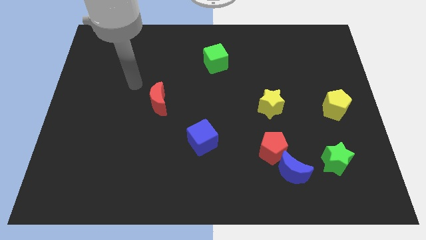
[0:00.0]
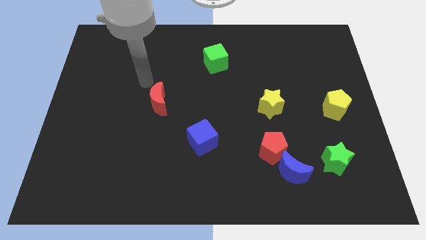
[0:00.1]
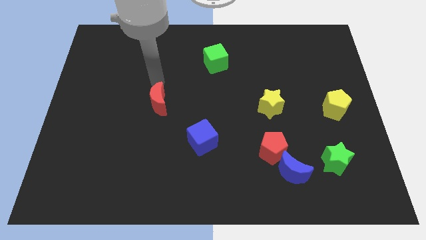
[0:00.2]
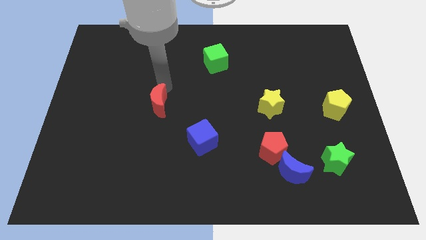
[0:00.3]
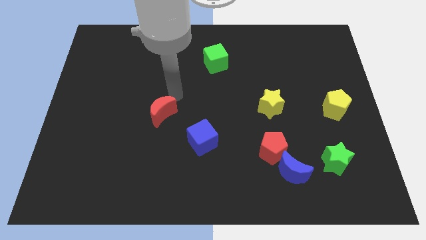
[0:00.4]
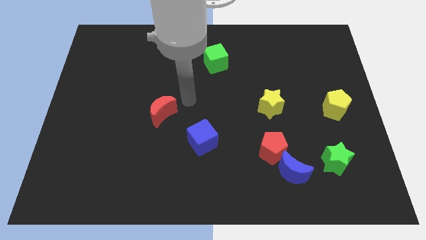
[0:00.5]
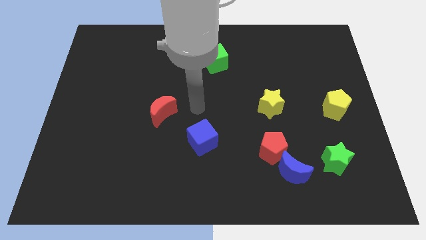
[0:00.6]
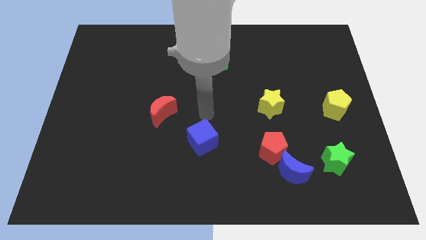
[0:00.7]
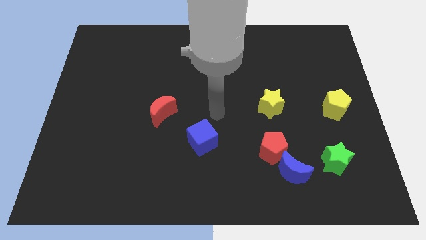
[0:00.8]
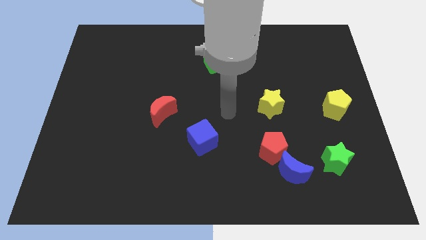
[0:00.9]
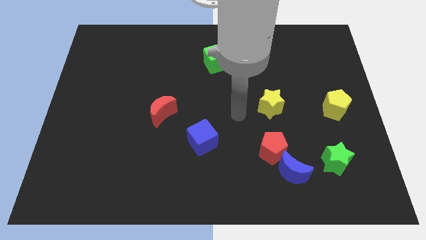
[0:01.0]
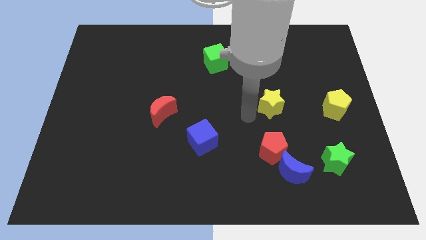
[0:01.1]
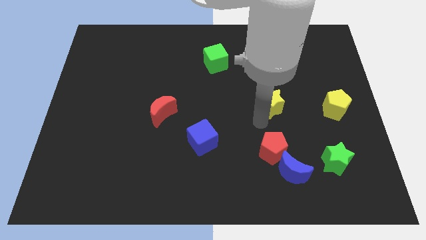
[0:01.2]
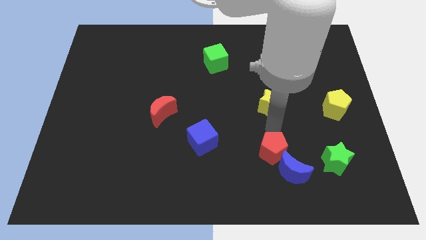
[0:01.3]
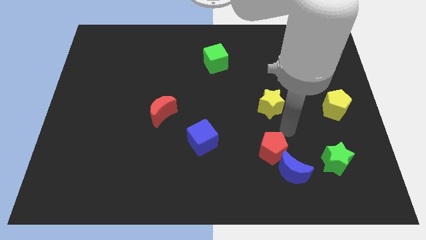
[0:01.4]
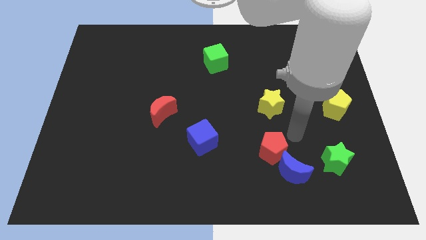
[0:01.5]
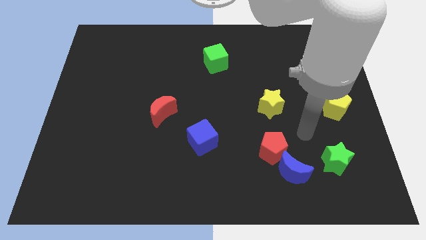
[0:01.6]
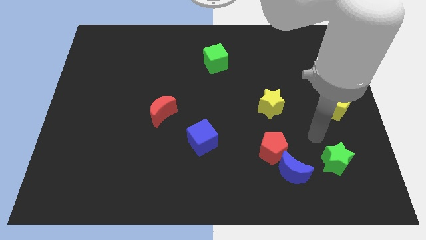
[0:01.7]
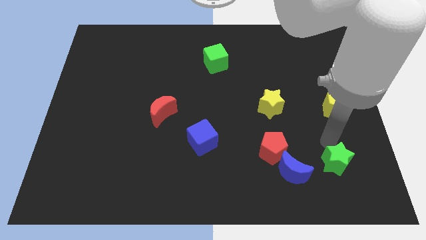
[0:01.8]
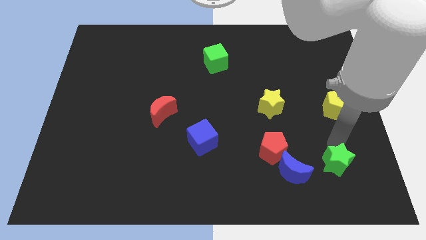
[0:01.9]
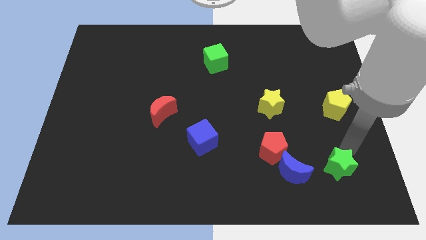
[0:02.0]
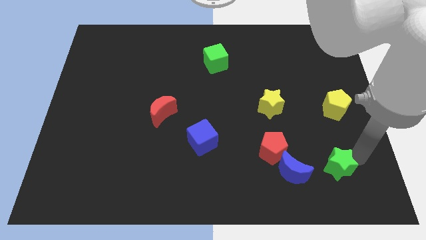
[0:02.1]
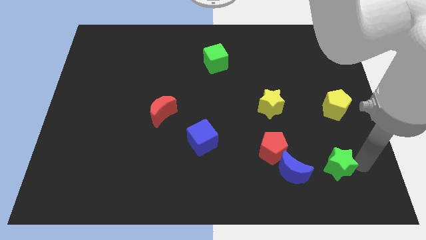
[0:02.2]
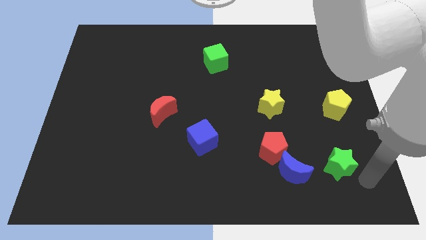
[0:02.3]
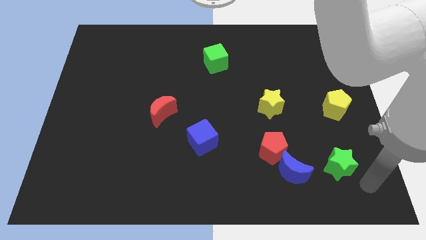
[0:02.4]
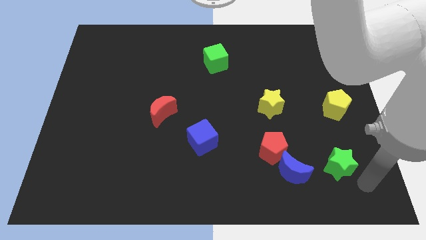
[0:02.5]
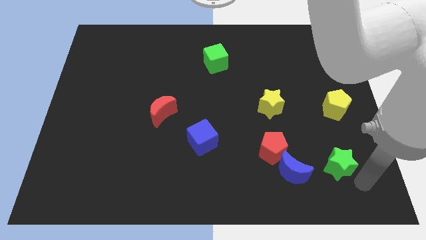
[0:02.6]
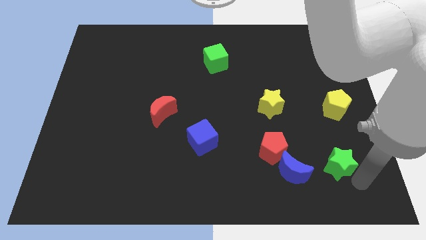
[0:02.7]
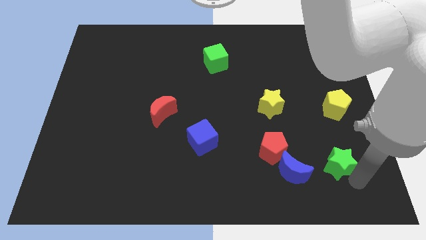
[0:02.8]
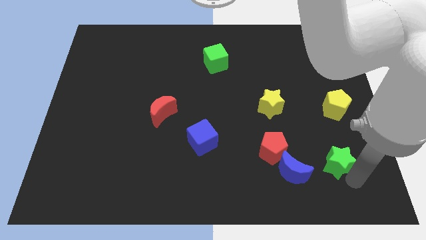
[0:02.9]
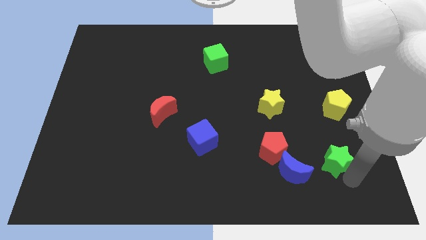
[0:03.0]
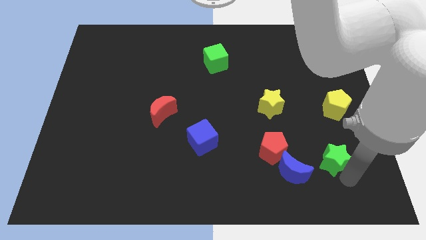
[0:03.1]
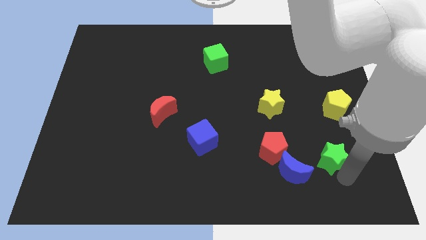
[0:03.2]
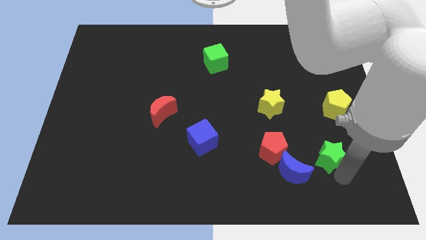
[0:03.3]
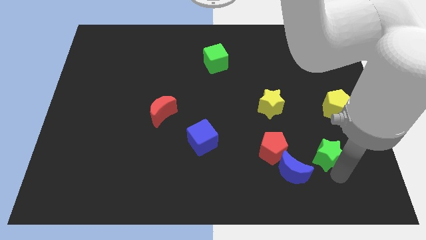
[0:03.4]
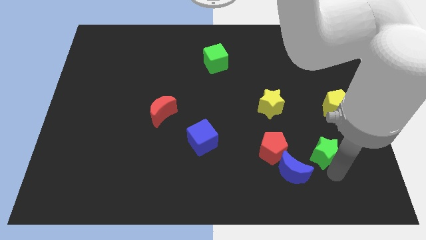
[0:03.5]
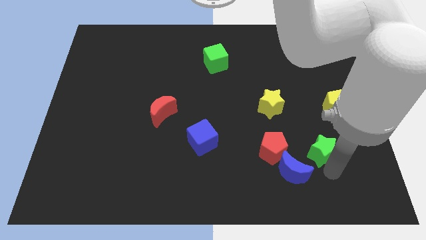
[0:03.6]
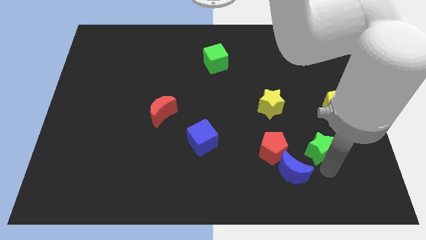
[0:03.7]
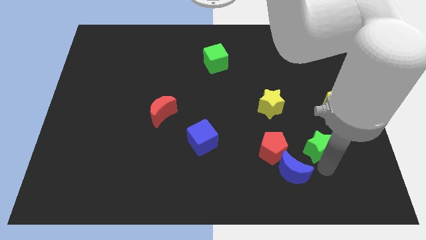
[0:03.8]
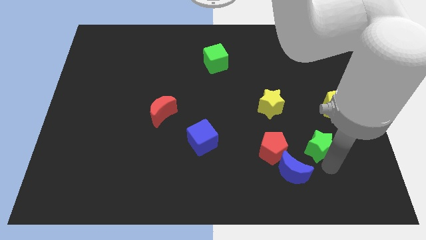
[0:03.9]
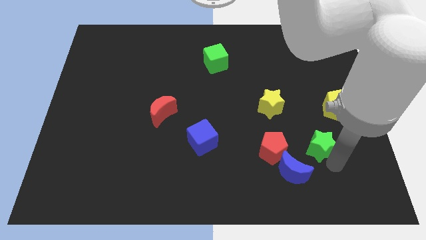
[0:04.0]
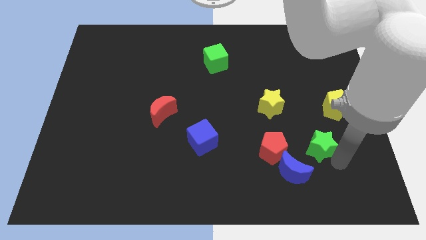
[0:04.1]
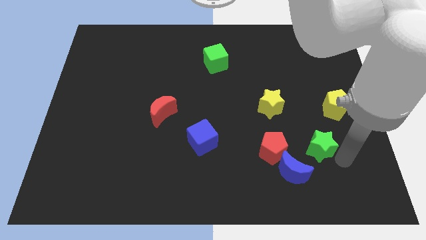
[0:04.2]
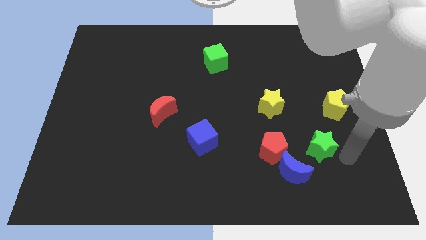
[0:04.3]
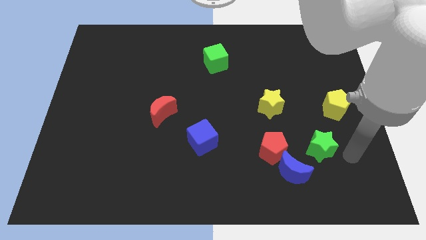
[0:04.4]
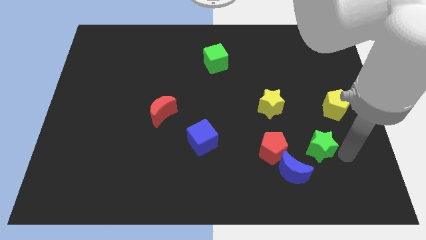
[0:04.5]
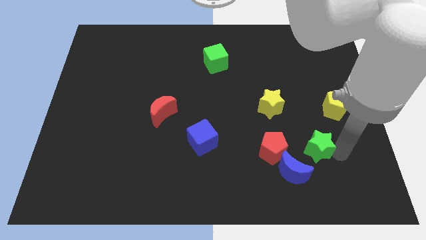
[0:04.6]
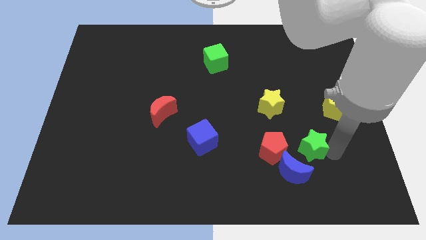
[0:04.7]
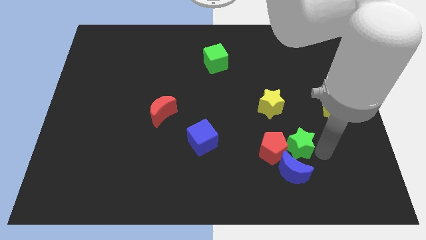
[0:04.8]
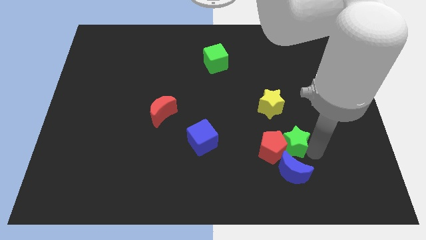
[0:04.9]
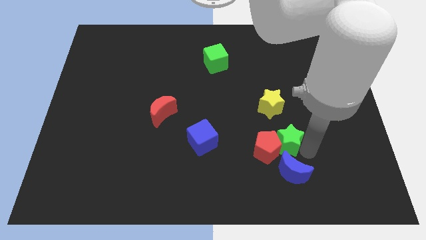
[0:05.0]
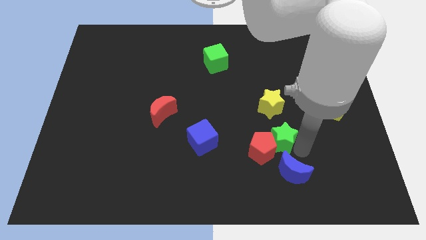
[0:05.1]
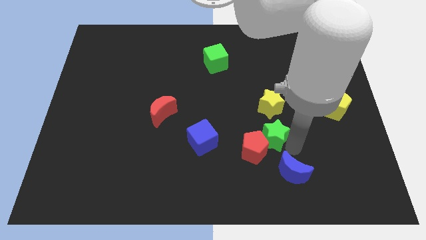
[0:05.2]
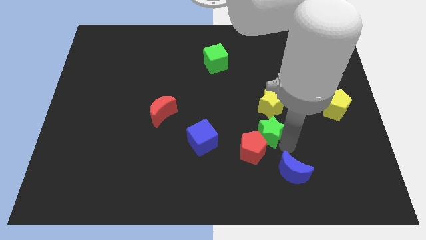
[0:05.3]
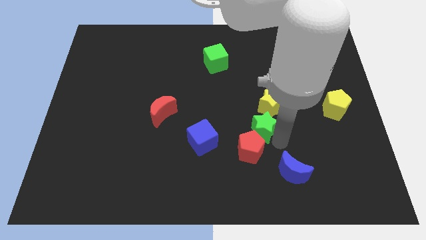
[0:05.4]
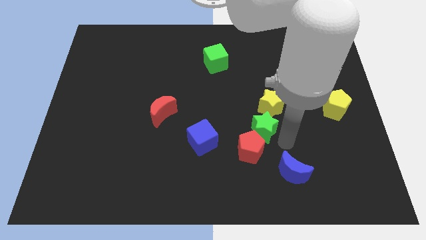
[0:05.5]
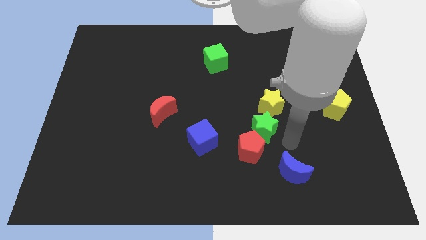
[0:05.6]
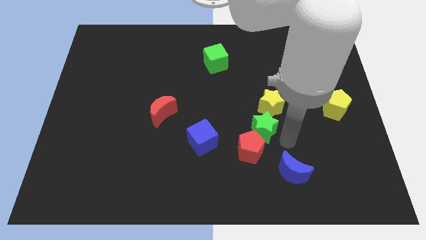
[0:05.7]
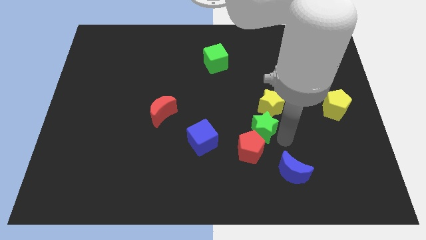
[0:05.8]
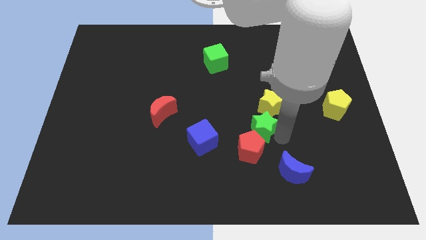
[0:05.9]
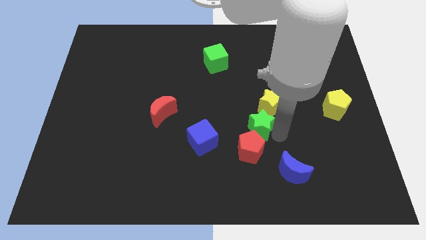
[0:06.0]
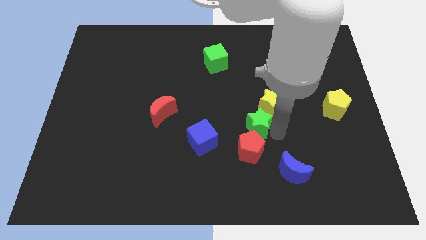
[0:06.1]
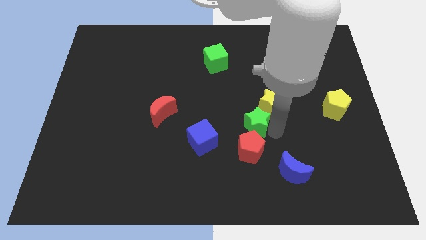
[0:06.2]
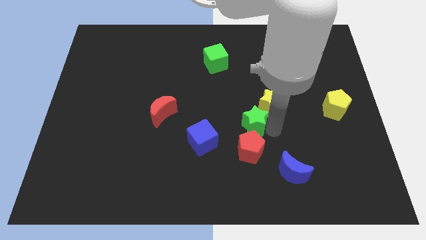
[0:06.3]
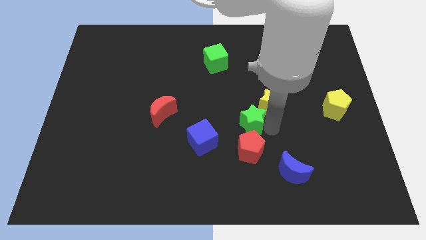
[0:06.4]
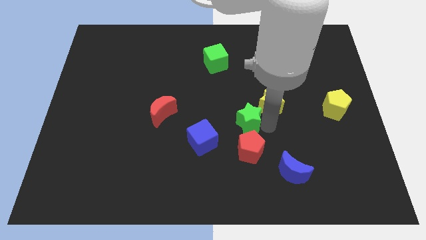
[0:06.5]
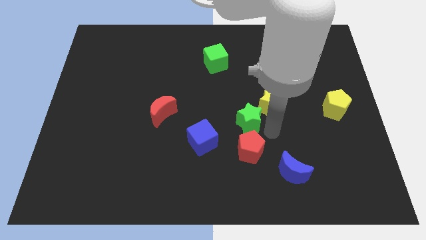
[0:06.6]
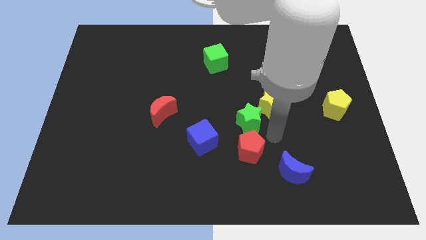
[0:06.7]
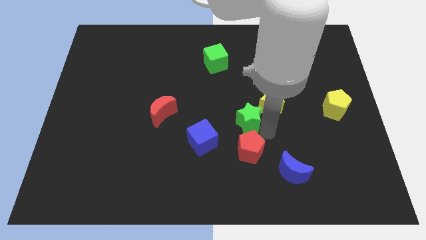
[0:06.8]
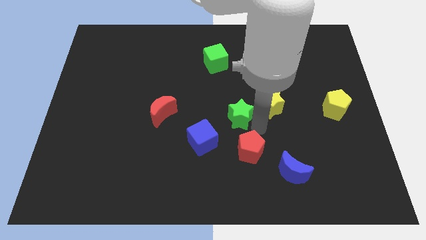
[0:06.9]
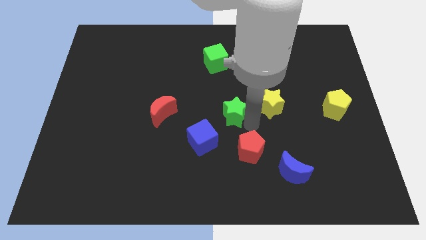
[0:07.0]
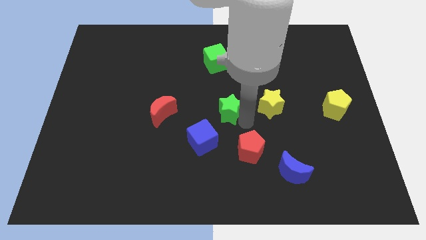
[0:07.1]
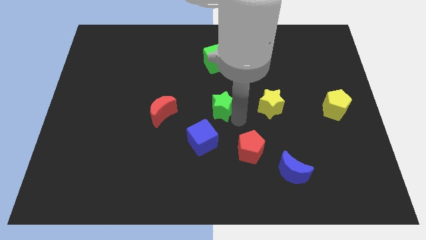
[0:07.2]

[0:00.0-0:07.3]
slide the green star to the bottom side of the green cube

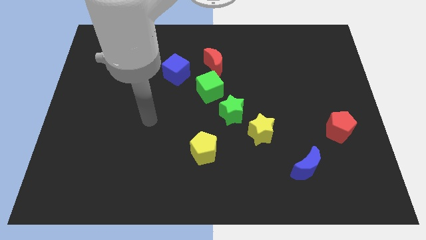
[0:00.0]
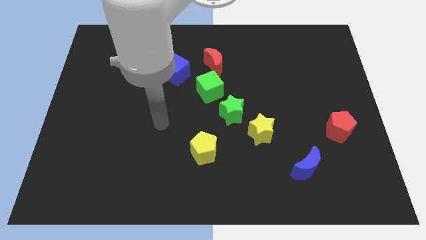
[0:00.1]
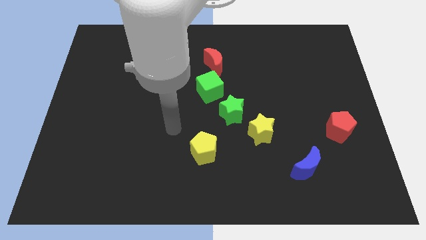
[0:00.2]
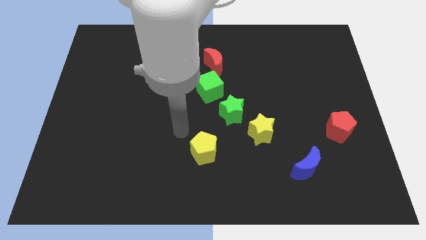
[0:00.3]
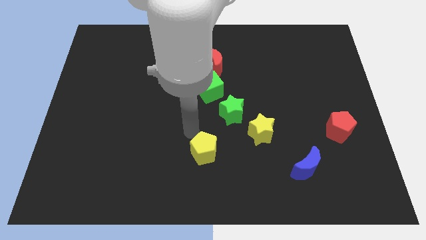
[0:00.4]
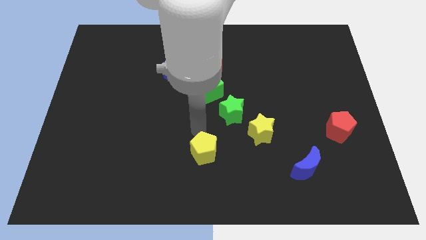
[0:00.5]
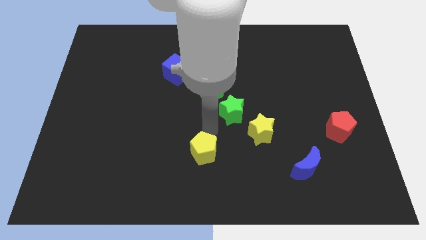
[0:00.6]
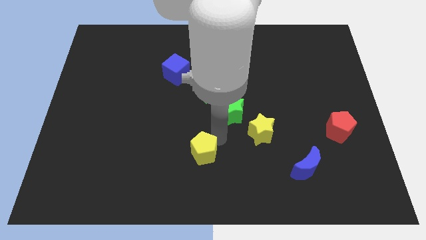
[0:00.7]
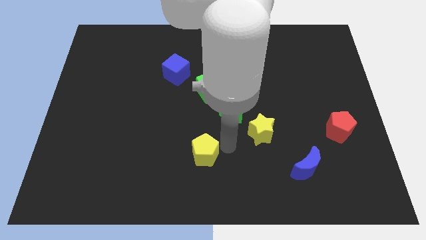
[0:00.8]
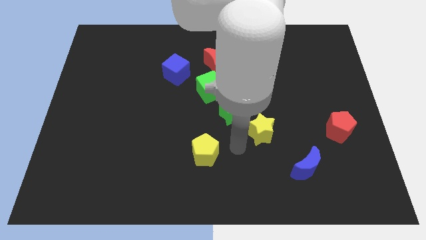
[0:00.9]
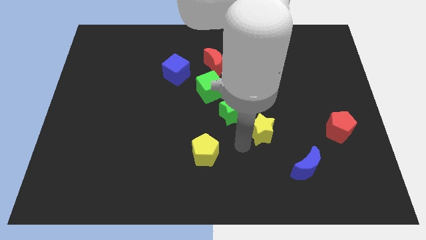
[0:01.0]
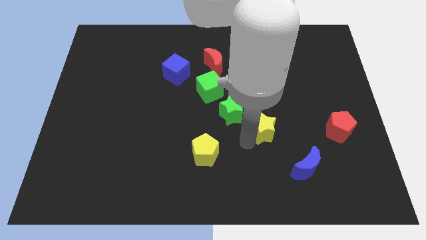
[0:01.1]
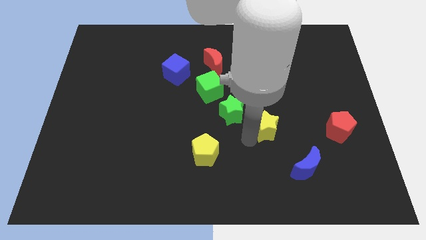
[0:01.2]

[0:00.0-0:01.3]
push the yellow star to the left side of the red pentagon
